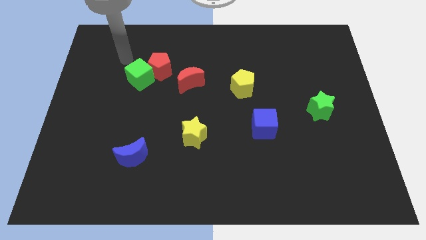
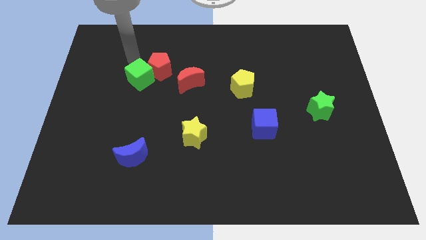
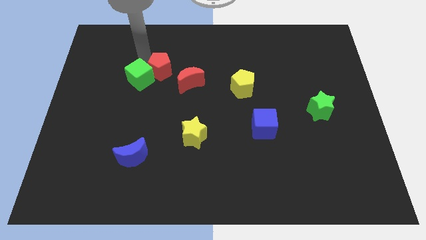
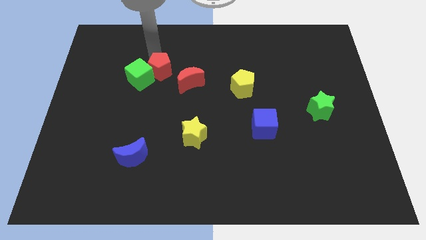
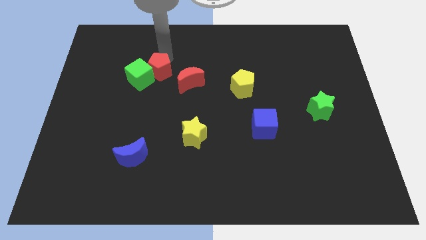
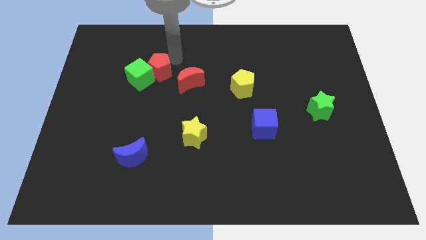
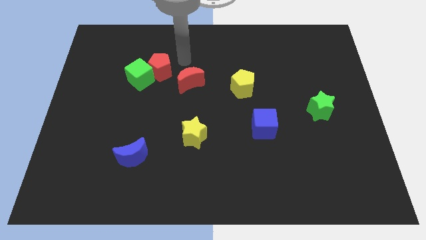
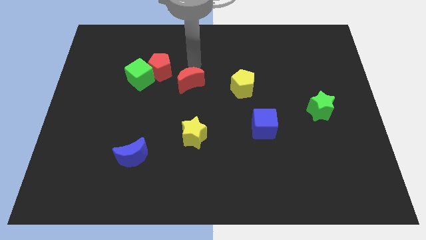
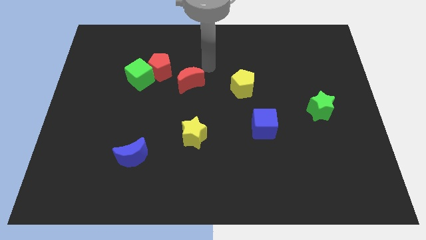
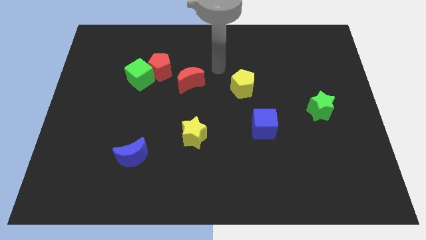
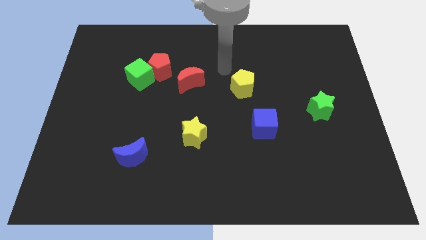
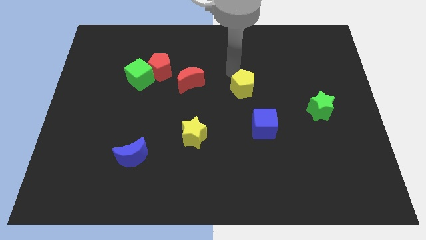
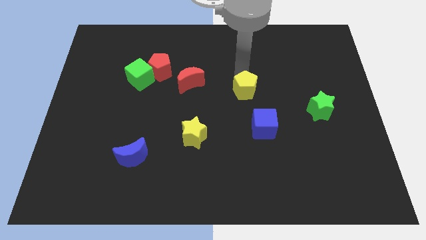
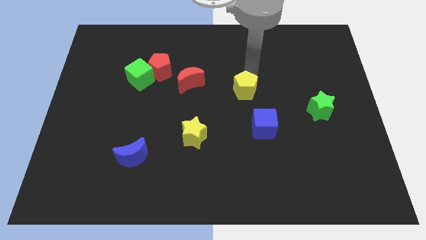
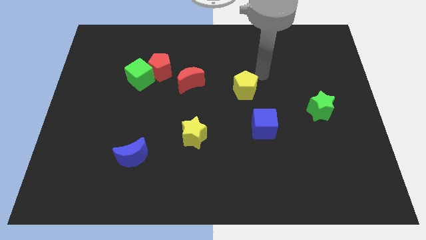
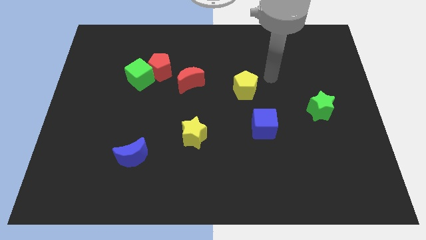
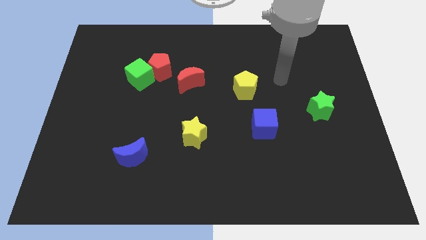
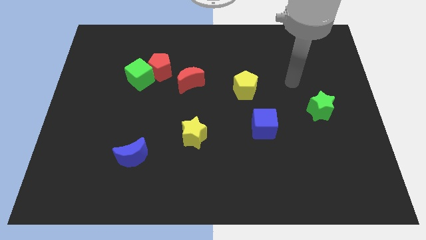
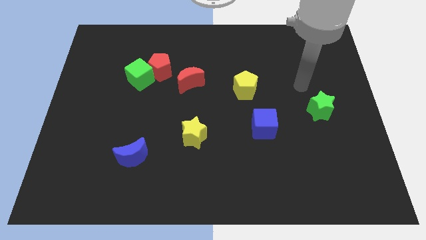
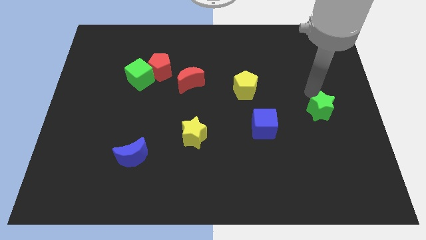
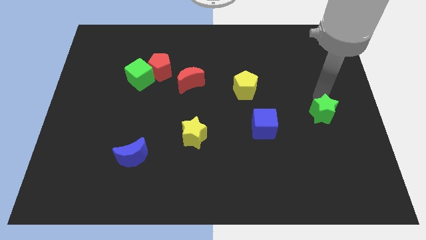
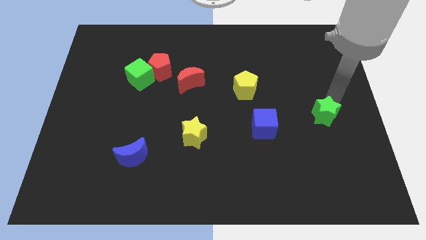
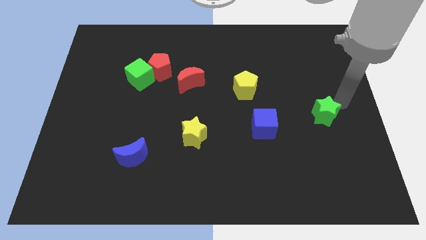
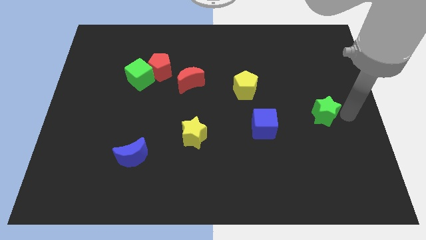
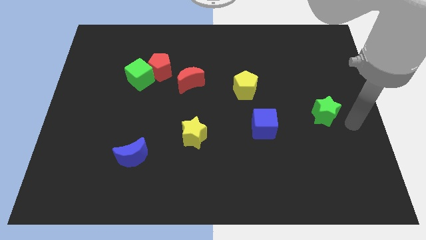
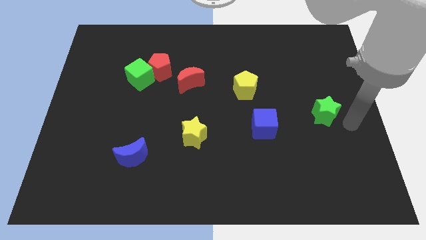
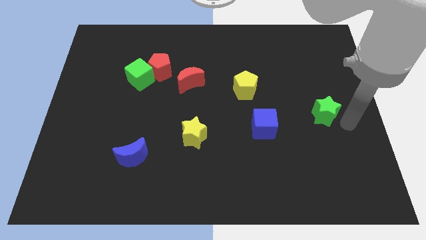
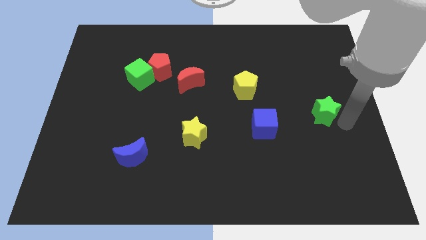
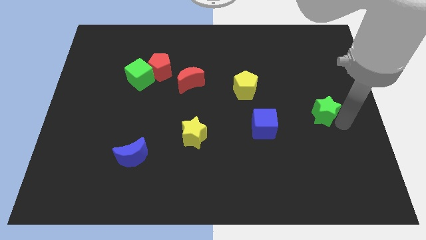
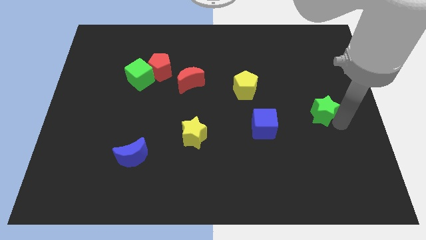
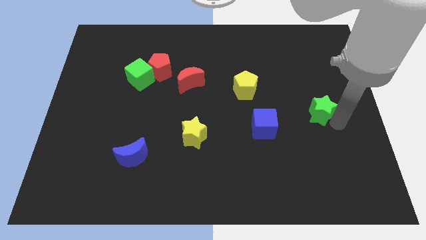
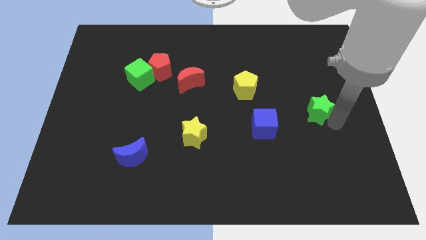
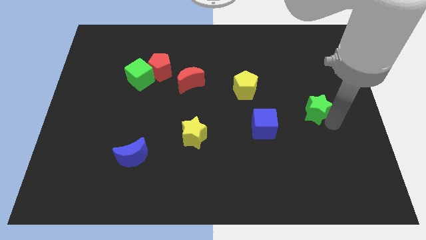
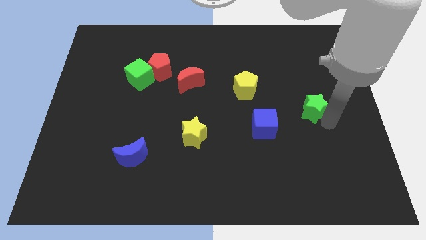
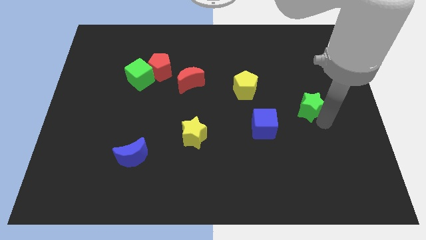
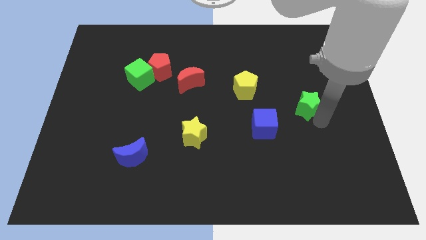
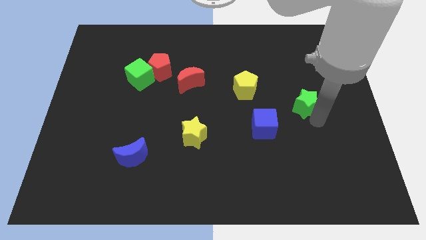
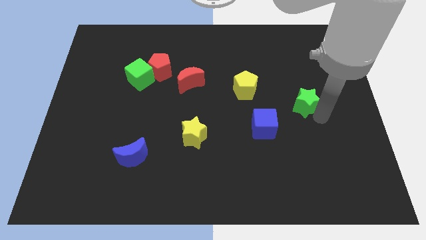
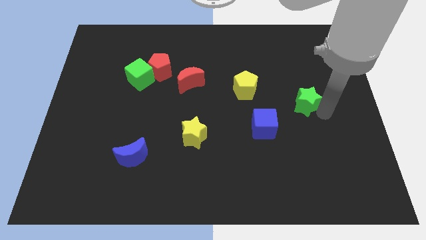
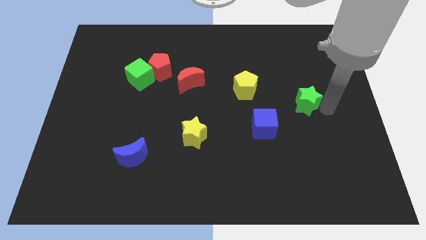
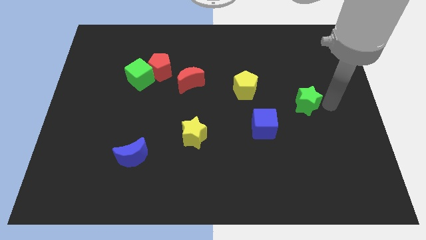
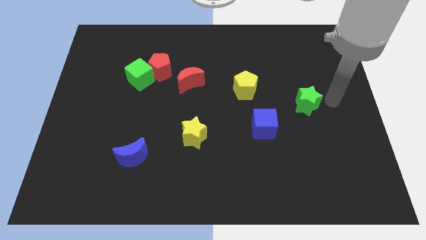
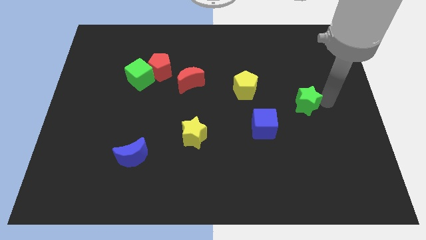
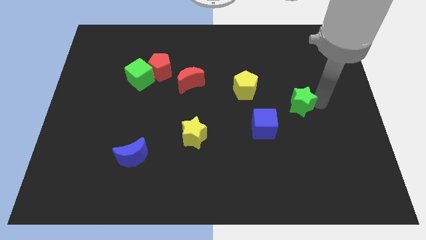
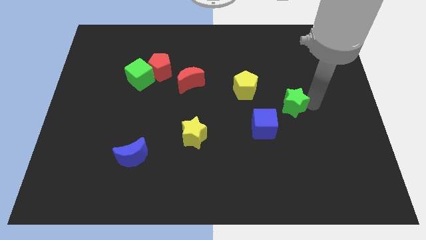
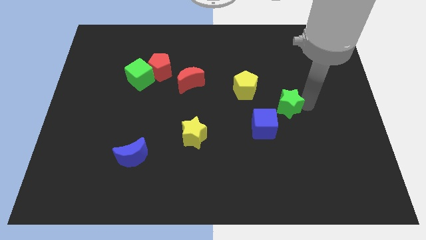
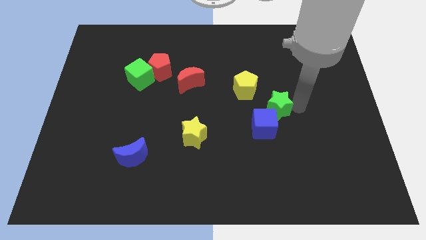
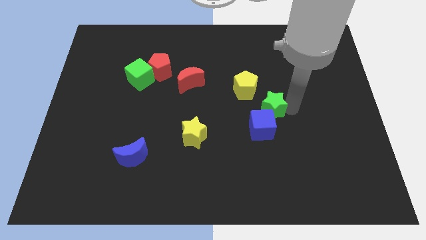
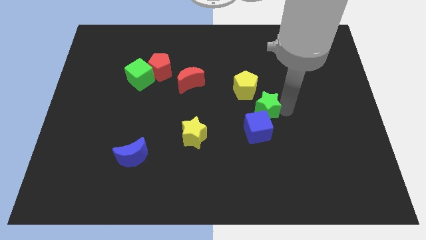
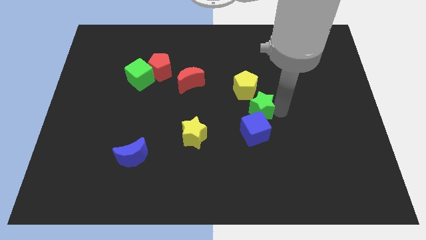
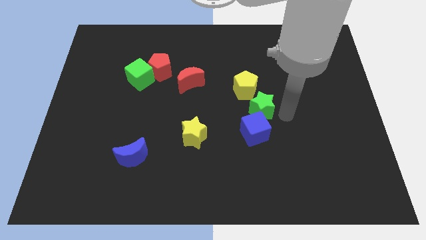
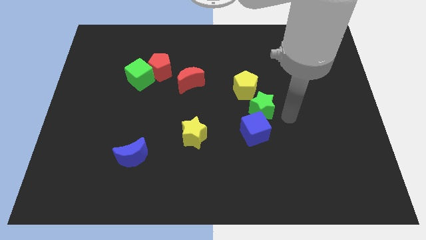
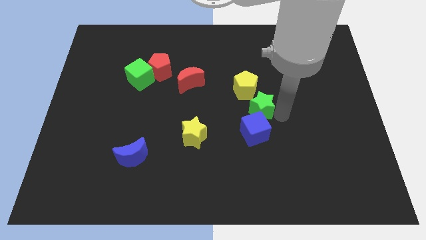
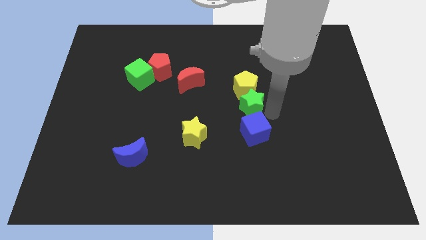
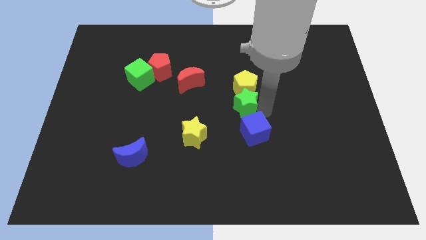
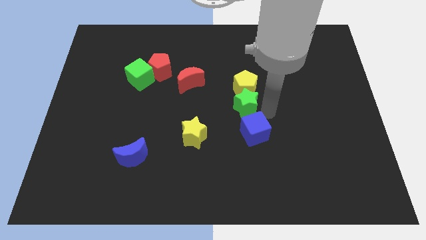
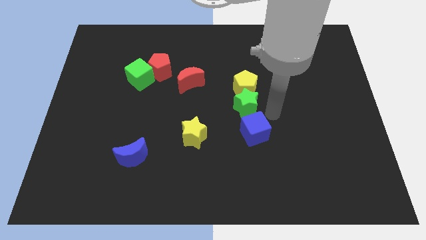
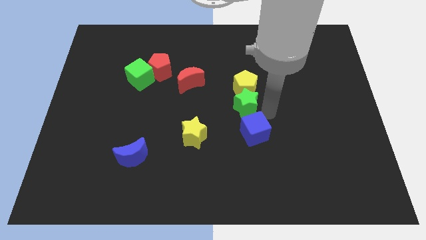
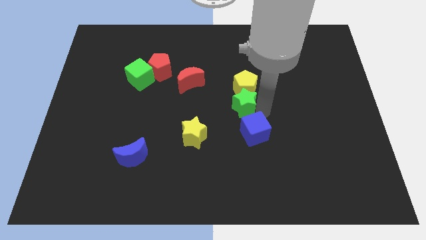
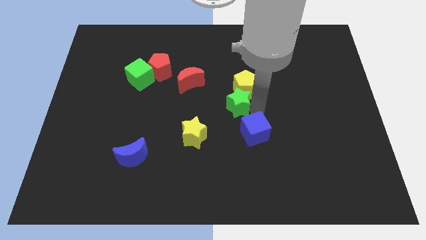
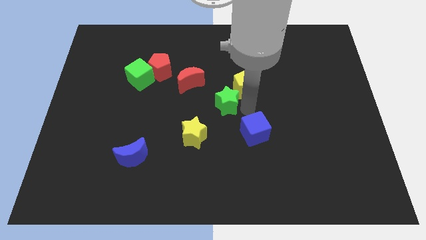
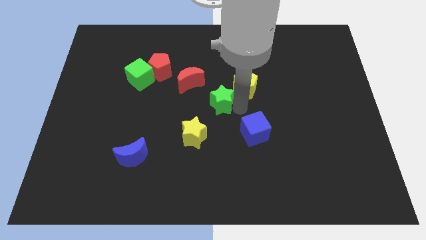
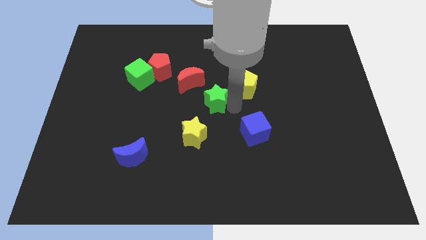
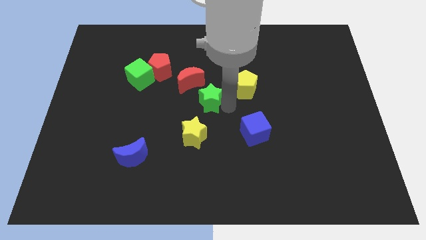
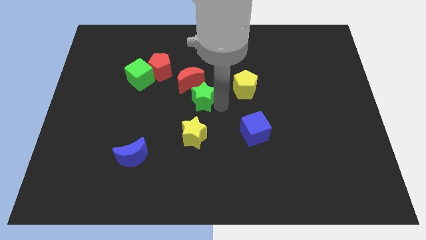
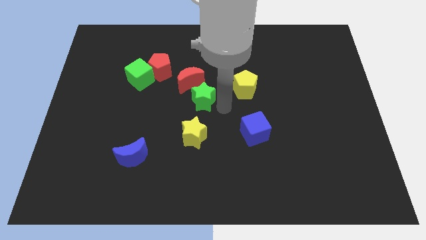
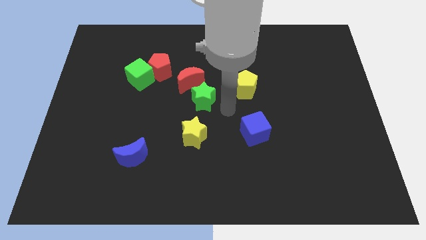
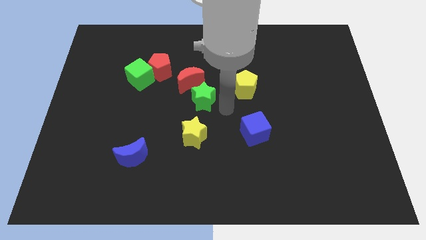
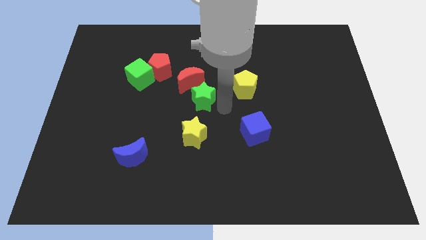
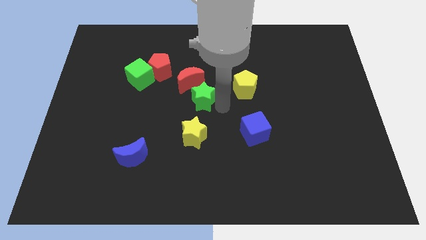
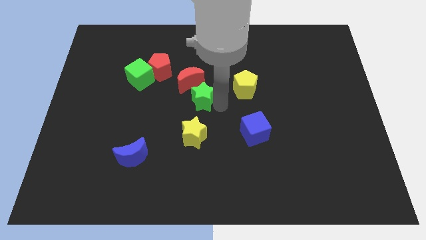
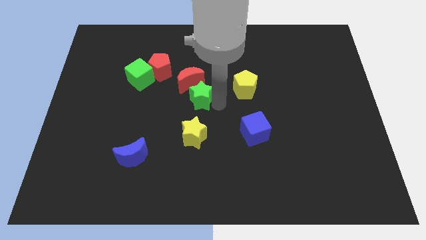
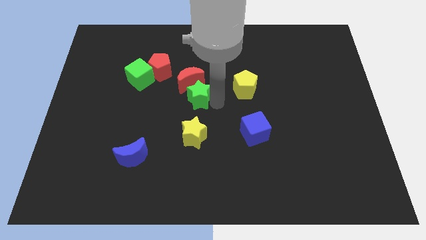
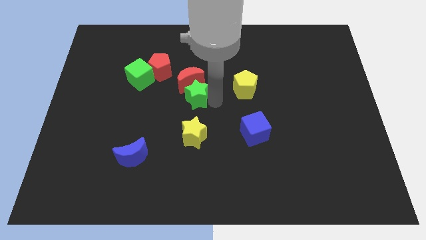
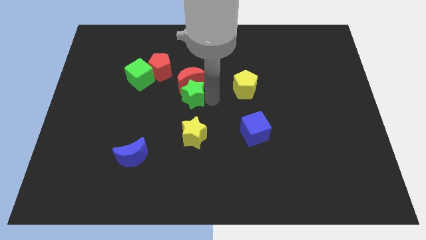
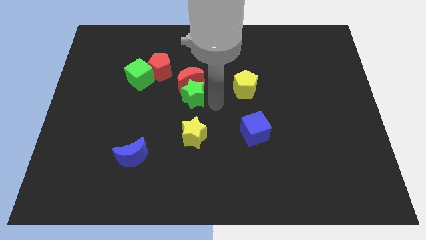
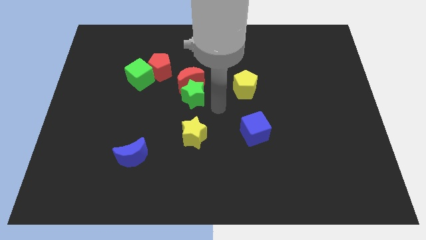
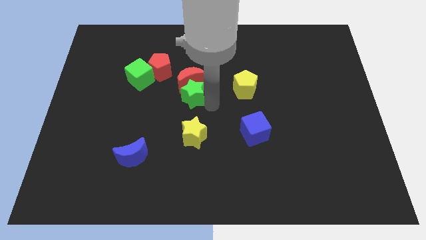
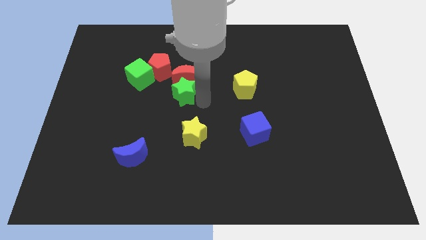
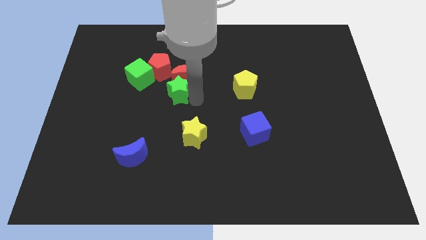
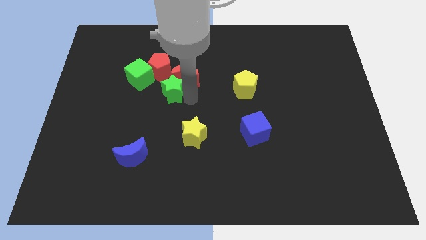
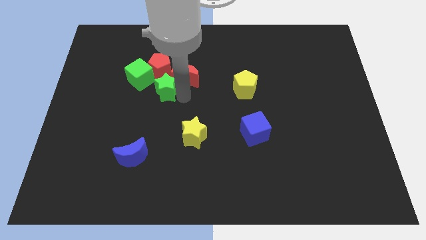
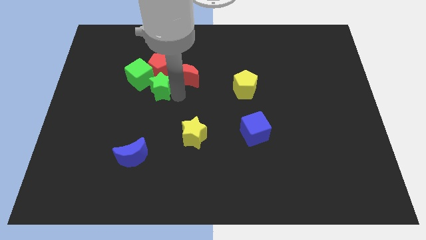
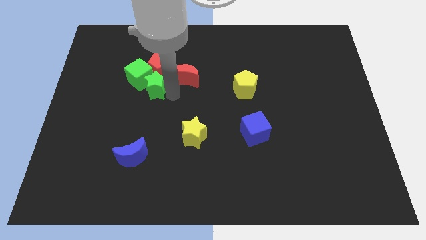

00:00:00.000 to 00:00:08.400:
slide the green star next to the green cube
